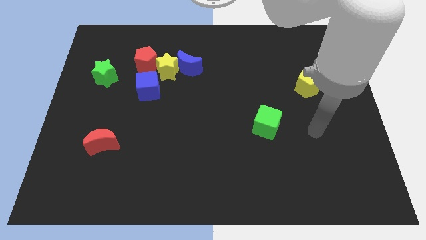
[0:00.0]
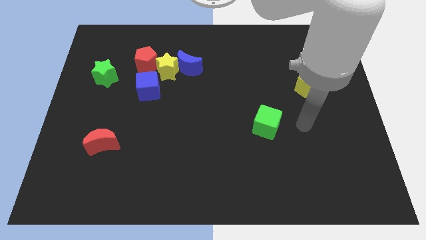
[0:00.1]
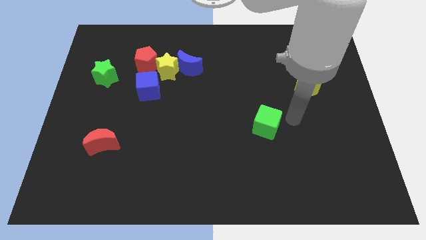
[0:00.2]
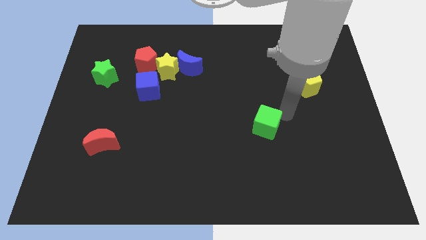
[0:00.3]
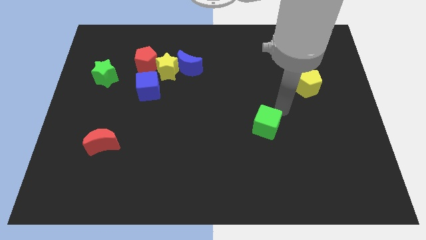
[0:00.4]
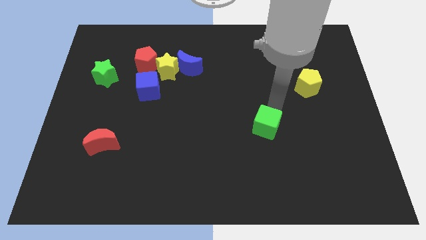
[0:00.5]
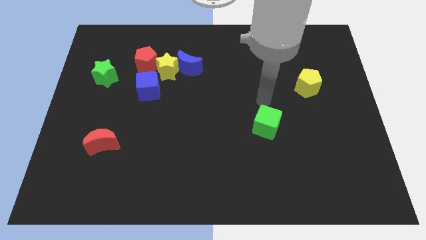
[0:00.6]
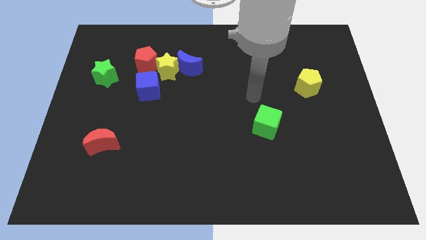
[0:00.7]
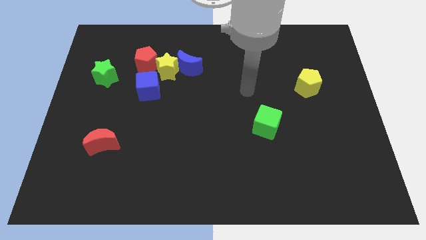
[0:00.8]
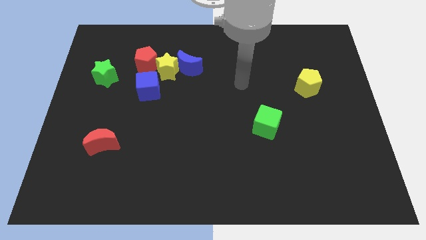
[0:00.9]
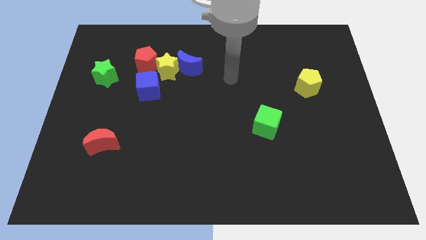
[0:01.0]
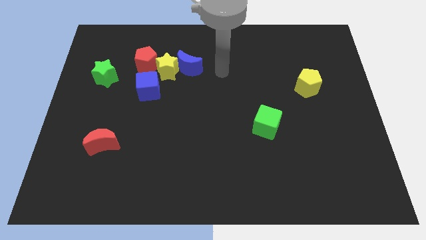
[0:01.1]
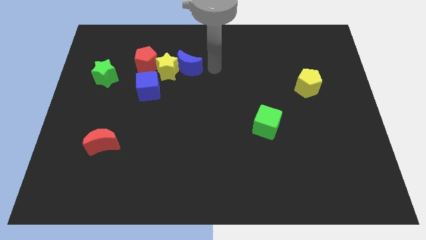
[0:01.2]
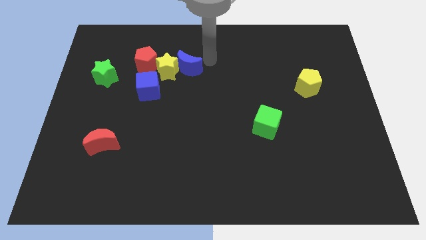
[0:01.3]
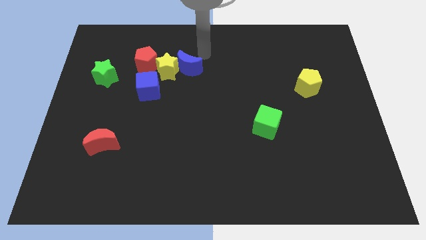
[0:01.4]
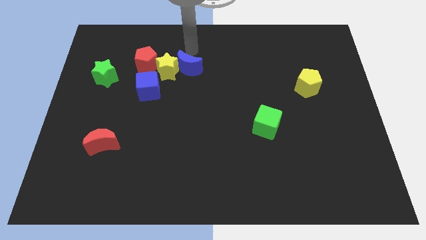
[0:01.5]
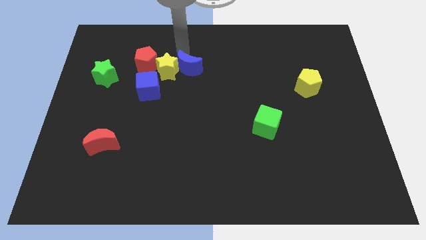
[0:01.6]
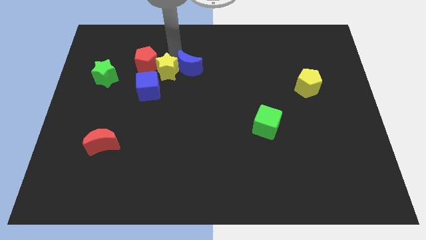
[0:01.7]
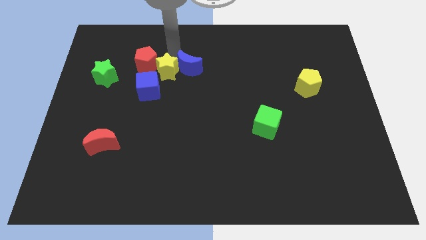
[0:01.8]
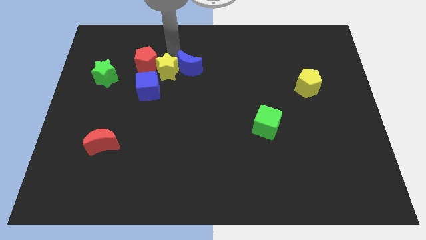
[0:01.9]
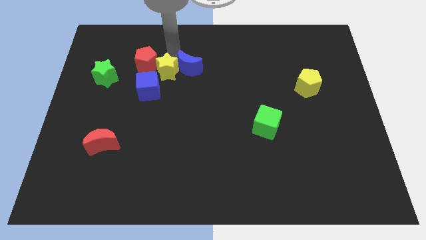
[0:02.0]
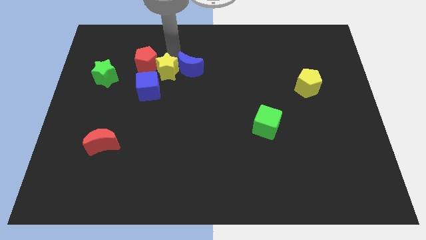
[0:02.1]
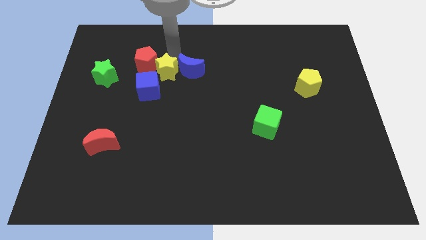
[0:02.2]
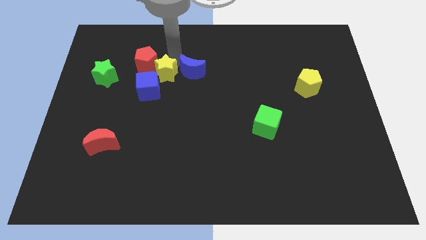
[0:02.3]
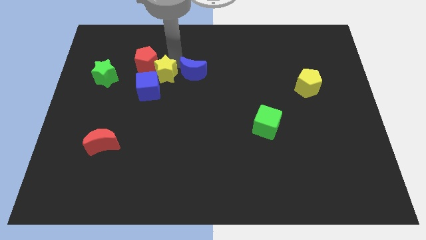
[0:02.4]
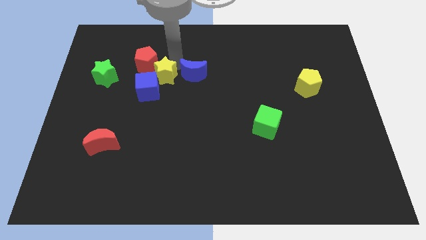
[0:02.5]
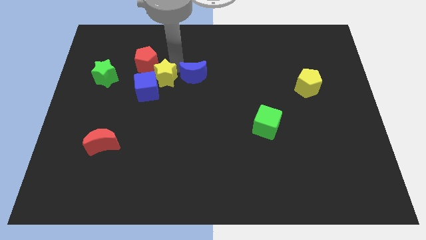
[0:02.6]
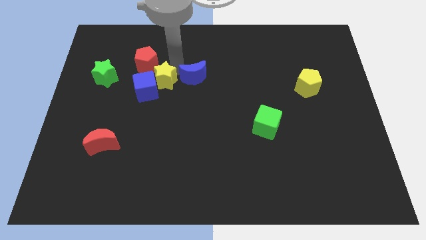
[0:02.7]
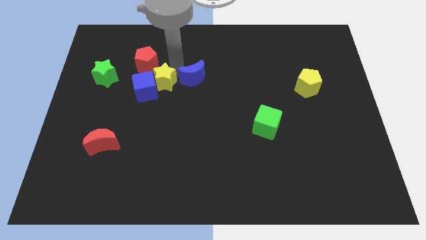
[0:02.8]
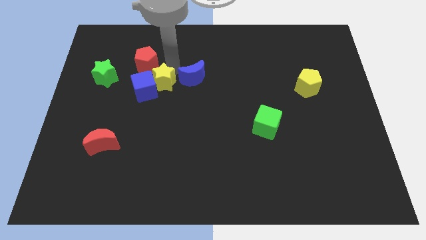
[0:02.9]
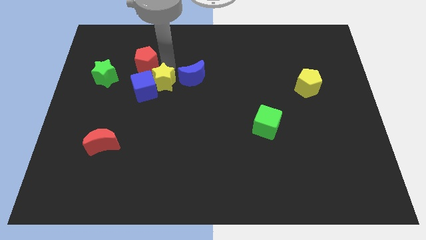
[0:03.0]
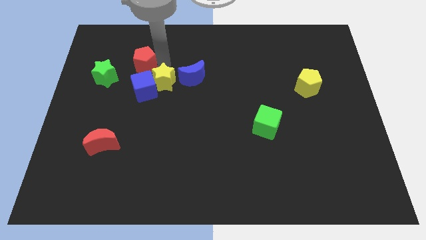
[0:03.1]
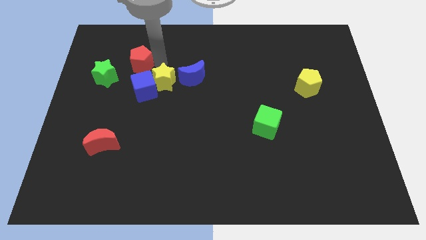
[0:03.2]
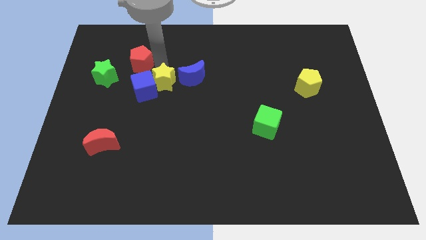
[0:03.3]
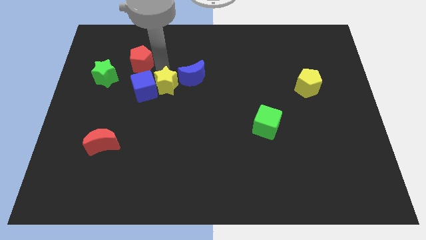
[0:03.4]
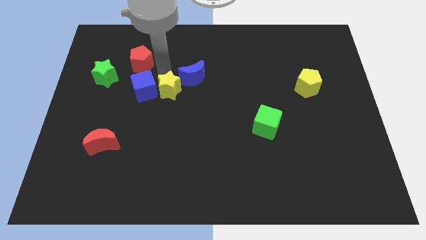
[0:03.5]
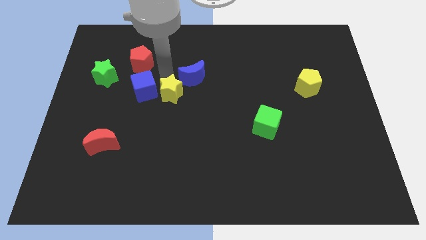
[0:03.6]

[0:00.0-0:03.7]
slightly slide the yellow star down

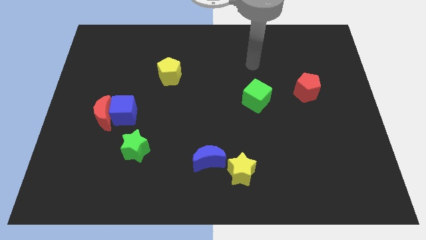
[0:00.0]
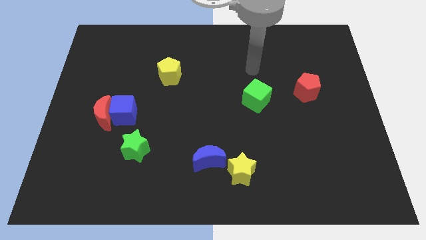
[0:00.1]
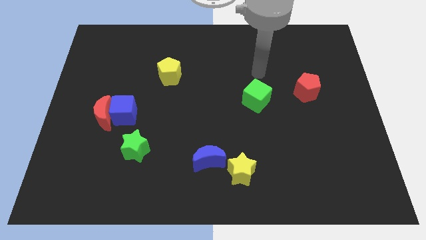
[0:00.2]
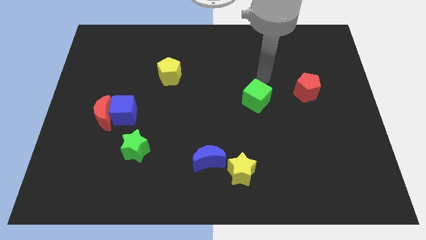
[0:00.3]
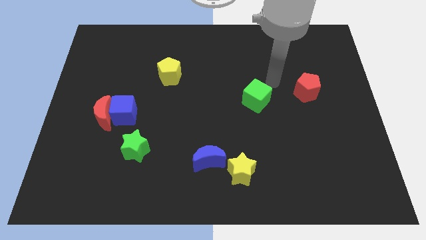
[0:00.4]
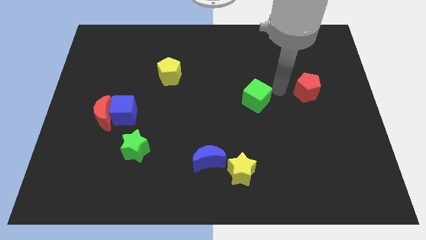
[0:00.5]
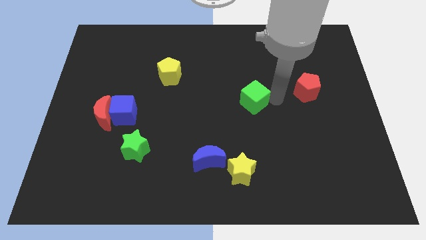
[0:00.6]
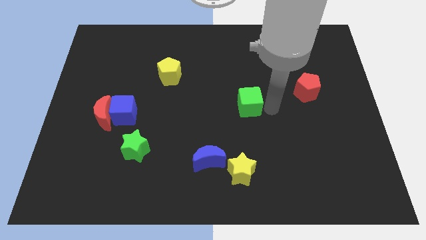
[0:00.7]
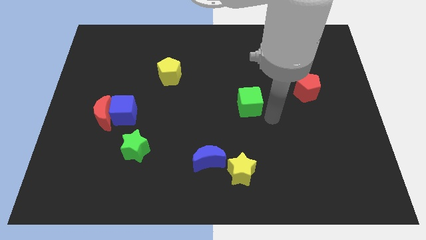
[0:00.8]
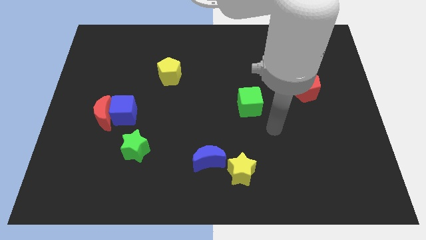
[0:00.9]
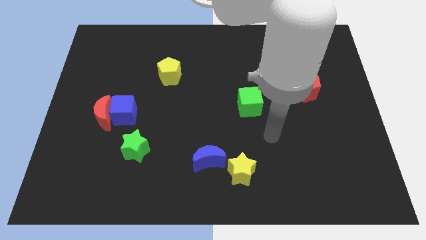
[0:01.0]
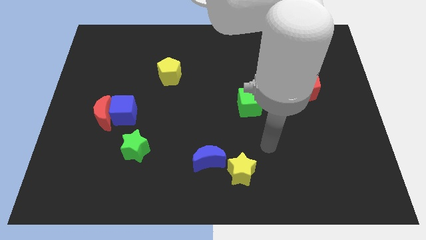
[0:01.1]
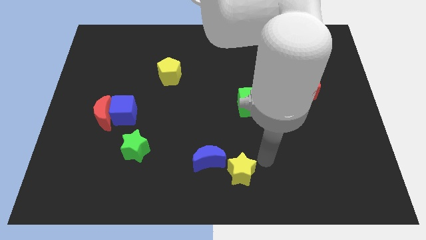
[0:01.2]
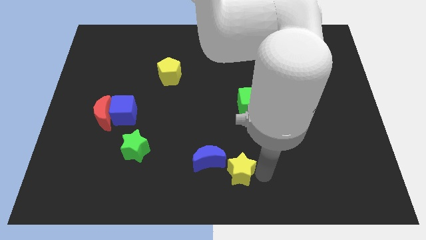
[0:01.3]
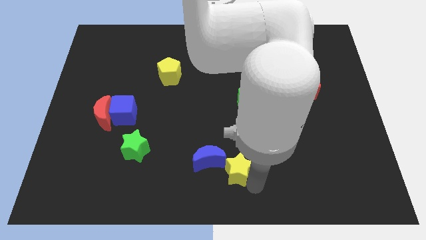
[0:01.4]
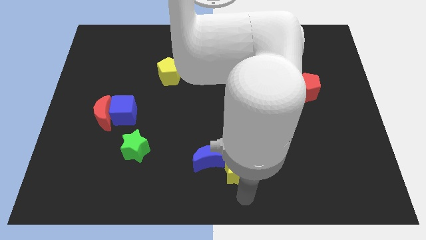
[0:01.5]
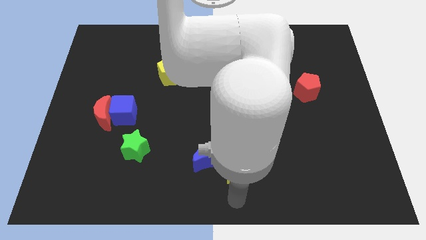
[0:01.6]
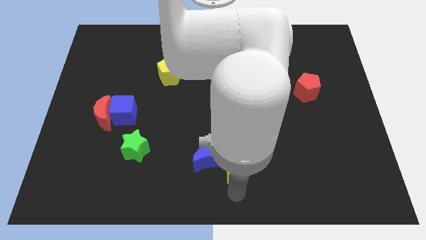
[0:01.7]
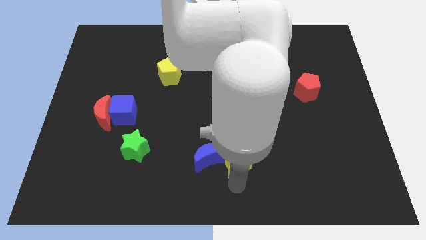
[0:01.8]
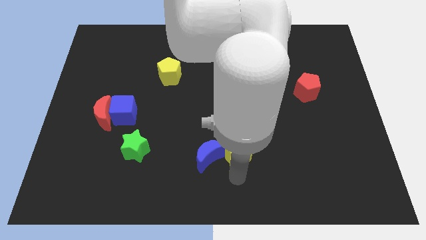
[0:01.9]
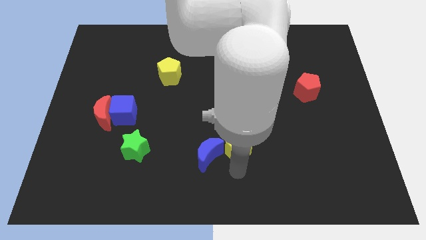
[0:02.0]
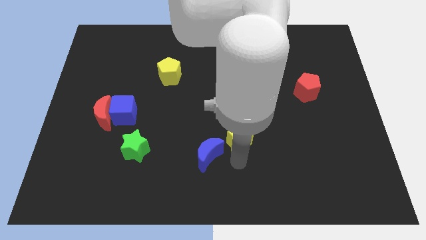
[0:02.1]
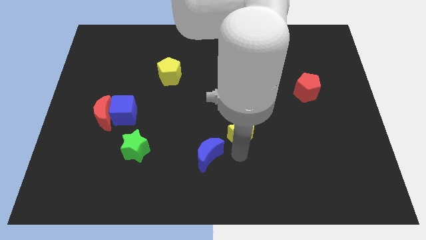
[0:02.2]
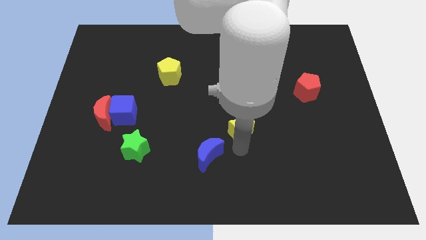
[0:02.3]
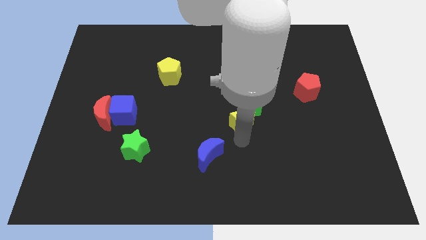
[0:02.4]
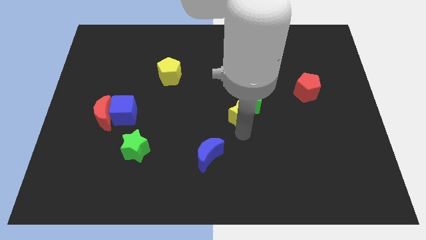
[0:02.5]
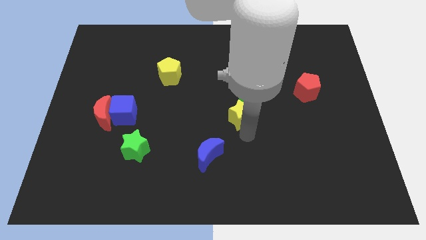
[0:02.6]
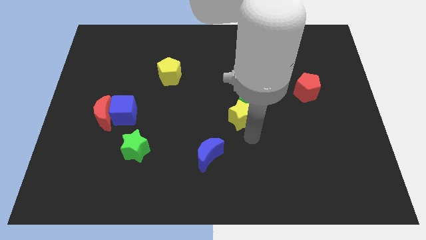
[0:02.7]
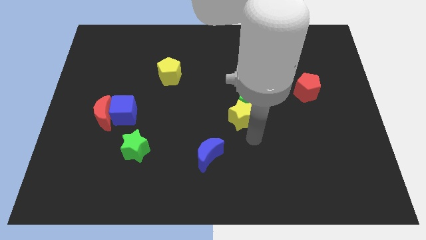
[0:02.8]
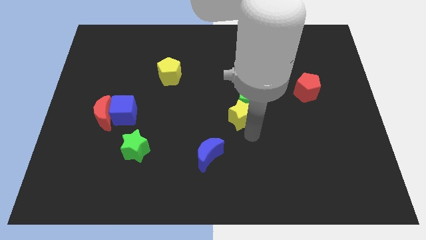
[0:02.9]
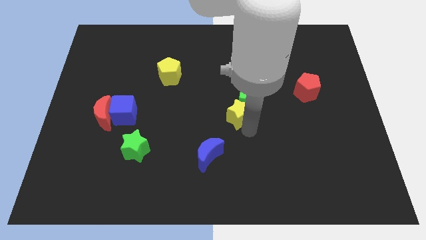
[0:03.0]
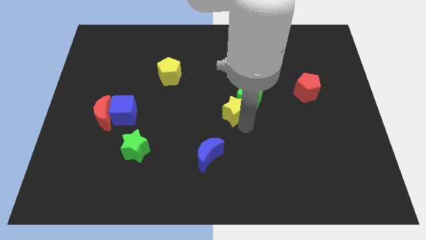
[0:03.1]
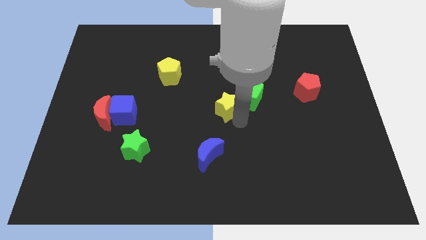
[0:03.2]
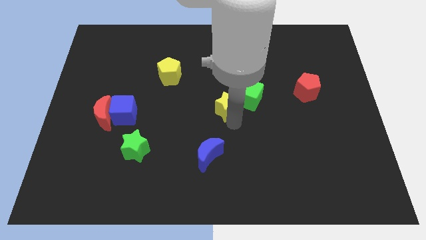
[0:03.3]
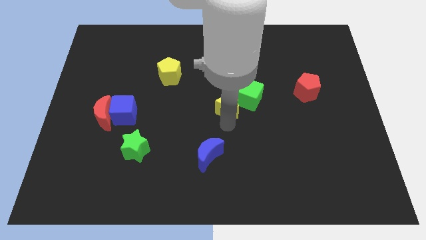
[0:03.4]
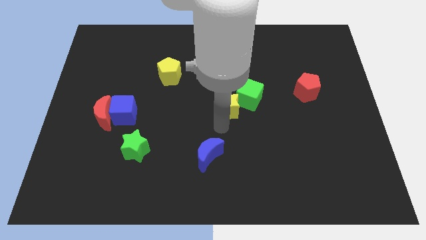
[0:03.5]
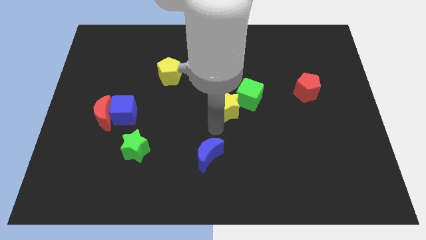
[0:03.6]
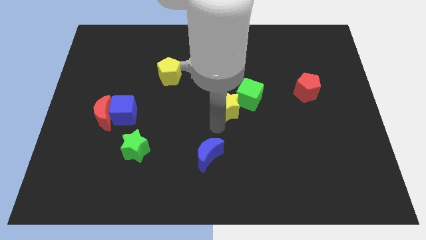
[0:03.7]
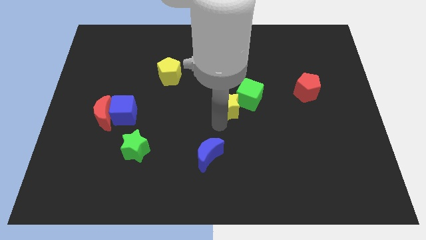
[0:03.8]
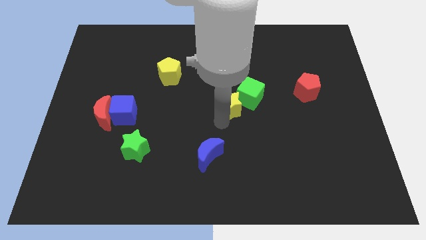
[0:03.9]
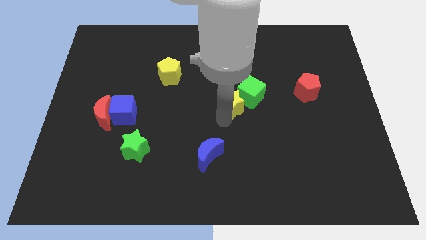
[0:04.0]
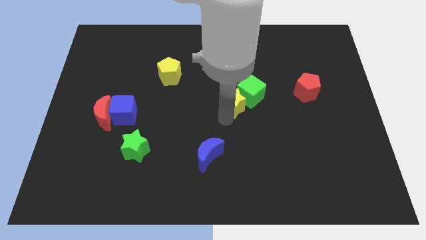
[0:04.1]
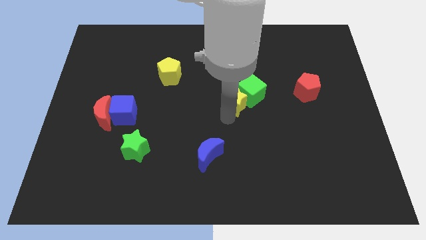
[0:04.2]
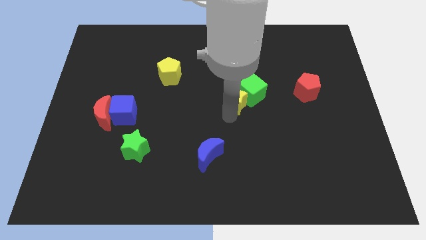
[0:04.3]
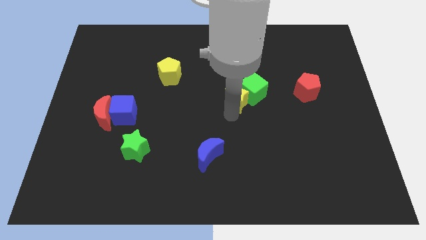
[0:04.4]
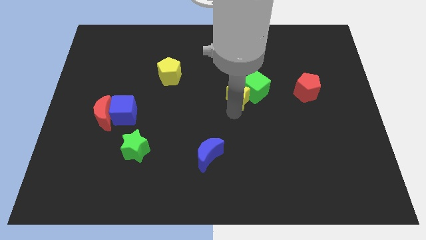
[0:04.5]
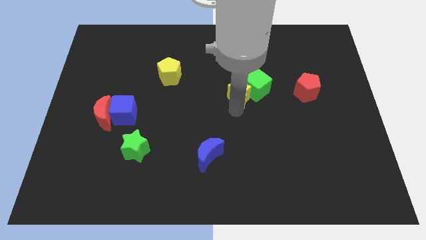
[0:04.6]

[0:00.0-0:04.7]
slide the yellow star up
